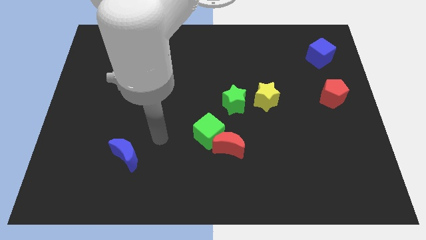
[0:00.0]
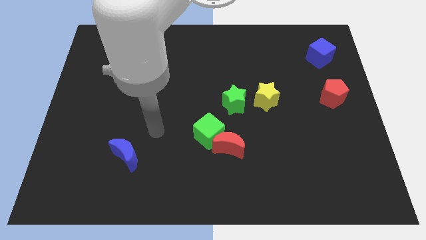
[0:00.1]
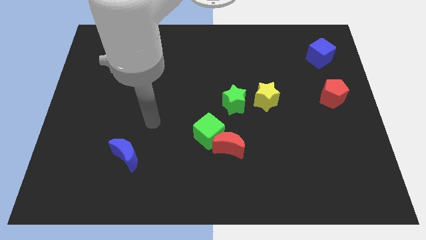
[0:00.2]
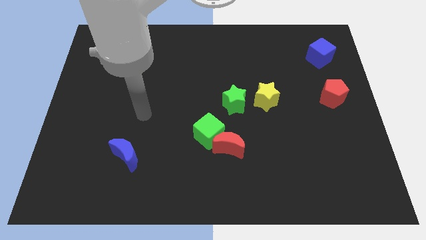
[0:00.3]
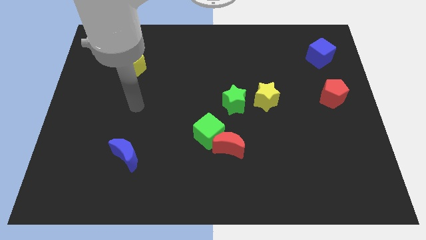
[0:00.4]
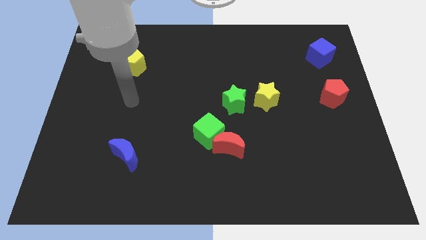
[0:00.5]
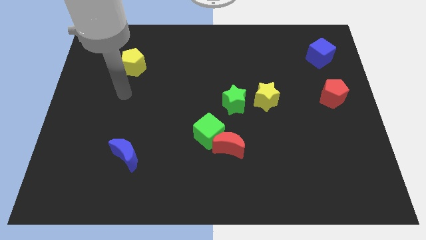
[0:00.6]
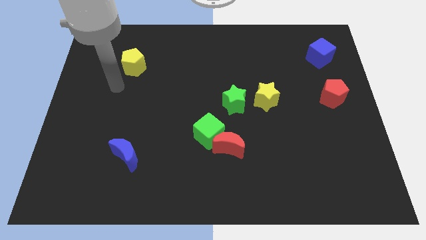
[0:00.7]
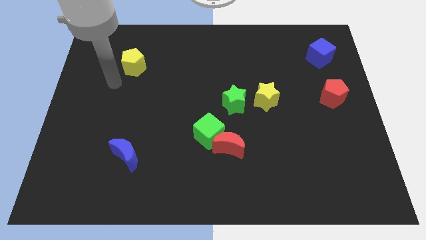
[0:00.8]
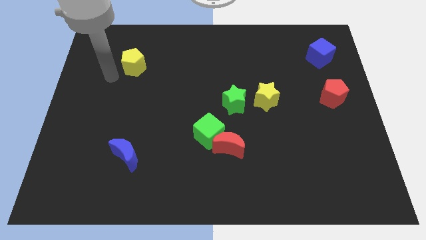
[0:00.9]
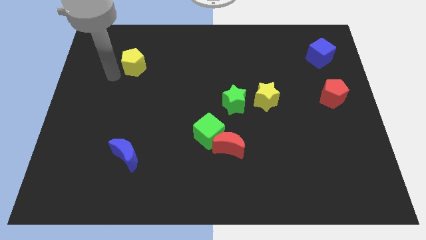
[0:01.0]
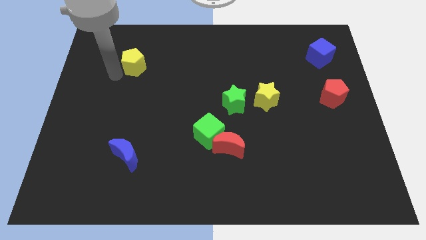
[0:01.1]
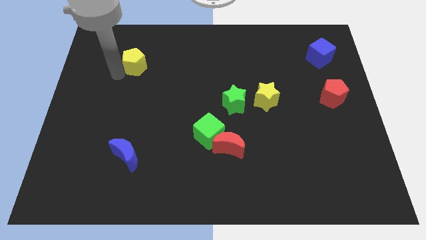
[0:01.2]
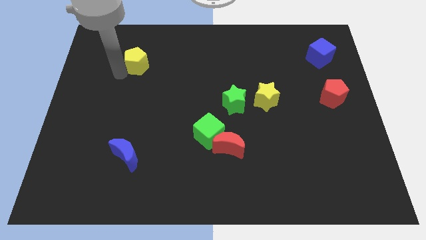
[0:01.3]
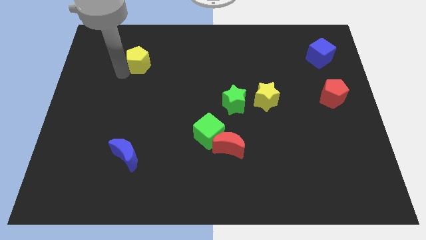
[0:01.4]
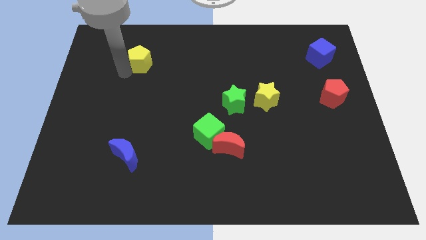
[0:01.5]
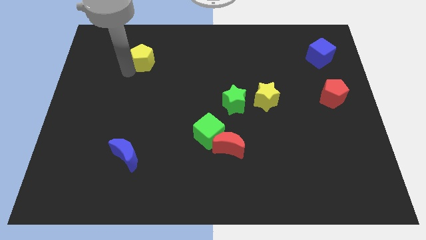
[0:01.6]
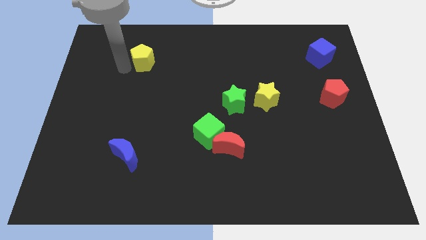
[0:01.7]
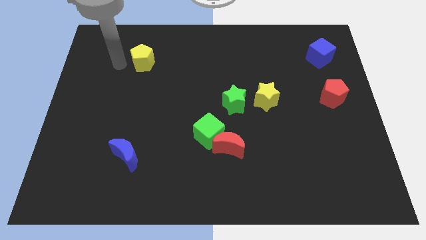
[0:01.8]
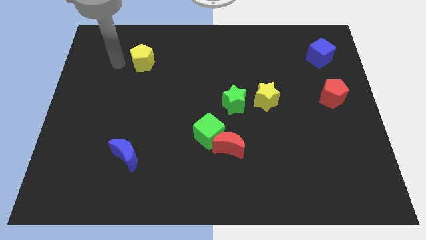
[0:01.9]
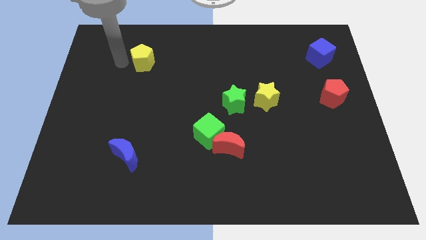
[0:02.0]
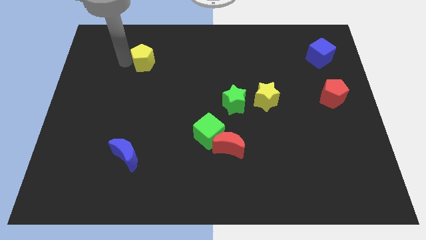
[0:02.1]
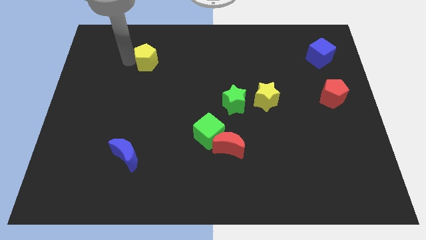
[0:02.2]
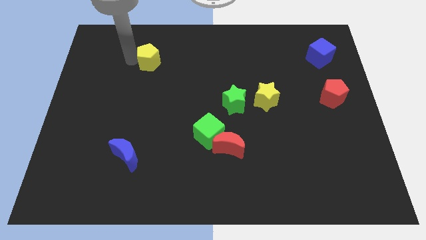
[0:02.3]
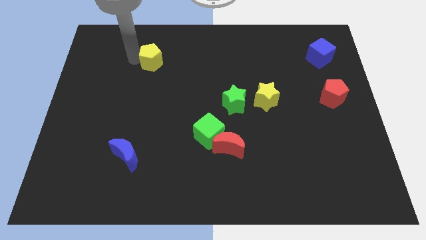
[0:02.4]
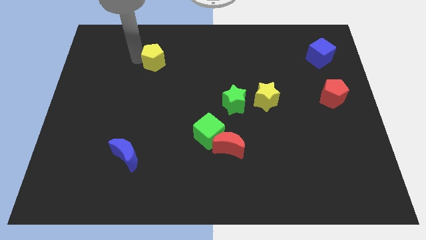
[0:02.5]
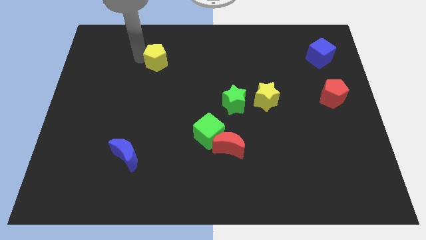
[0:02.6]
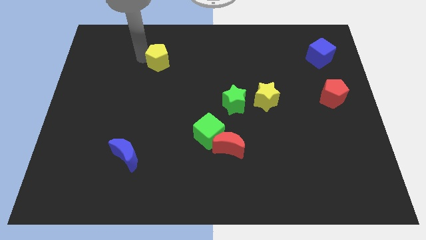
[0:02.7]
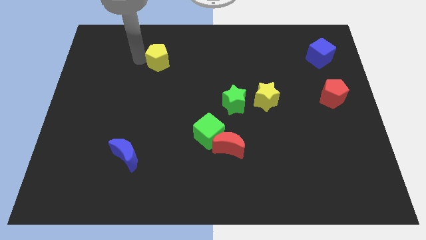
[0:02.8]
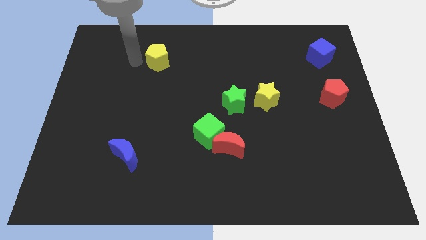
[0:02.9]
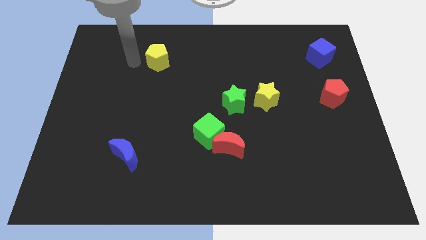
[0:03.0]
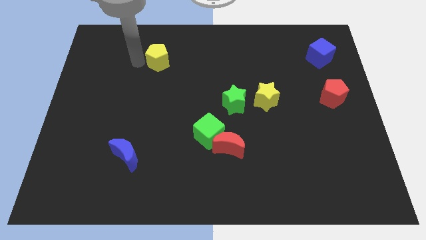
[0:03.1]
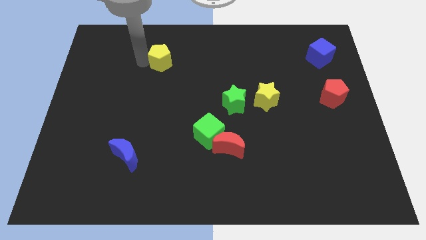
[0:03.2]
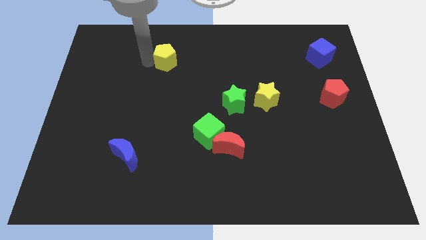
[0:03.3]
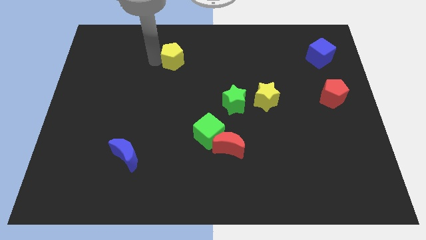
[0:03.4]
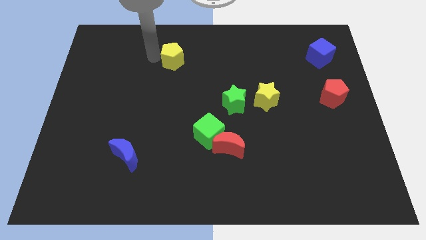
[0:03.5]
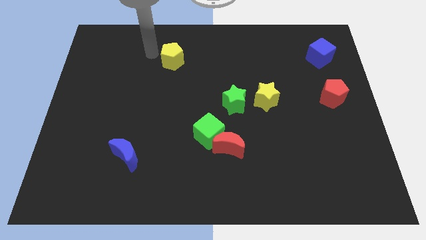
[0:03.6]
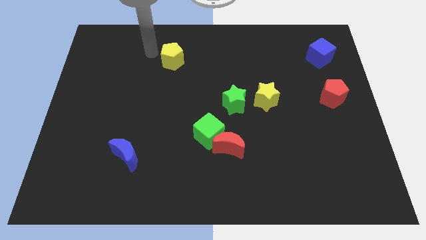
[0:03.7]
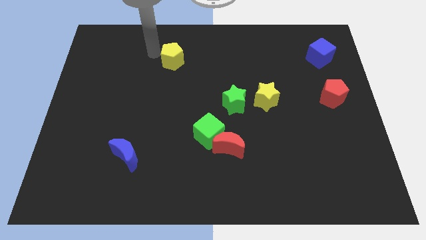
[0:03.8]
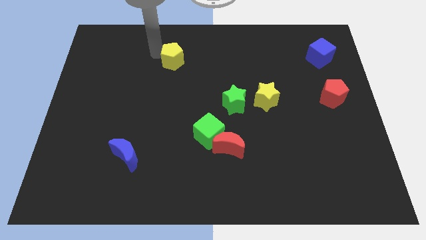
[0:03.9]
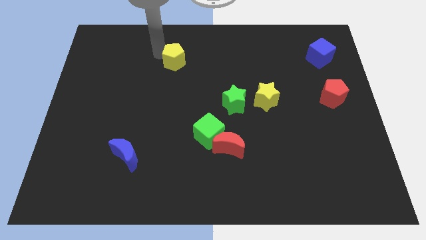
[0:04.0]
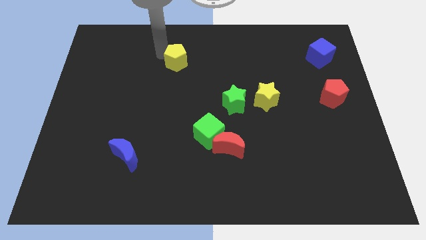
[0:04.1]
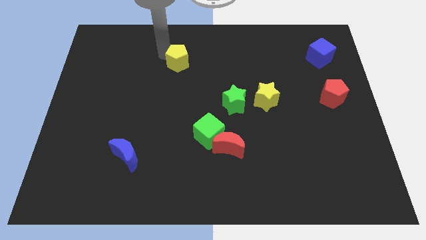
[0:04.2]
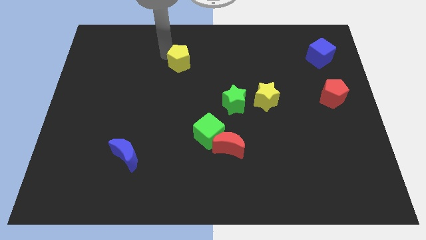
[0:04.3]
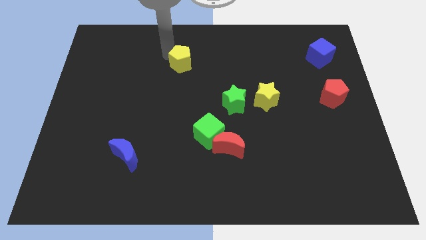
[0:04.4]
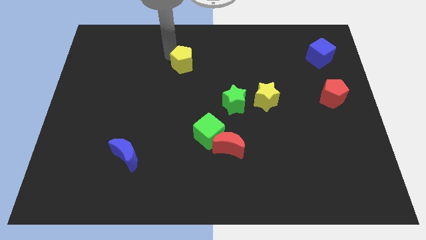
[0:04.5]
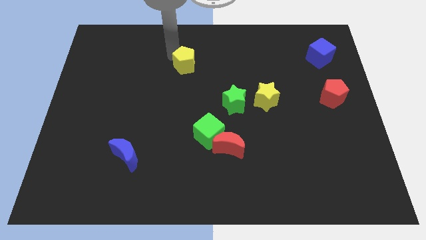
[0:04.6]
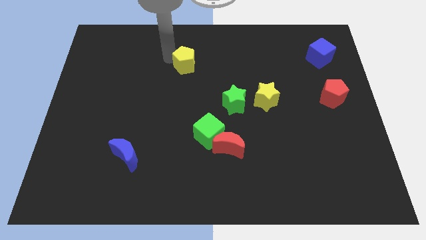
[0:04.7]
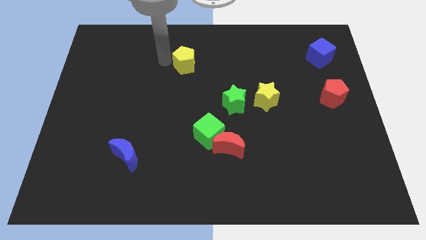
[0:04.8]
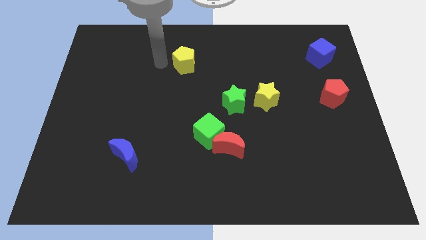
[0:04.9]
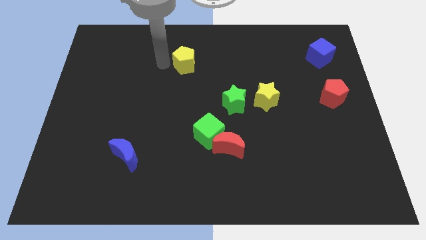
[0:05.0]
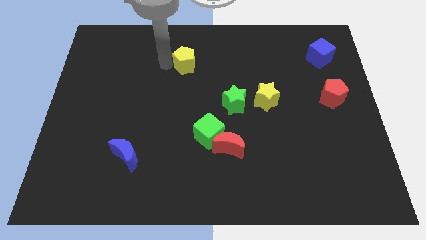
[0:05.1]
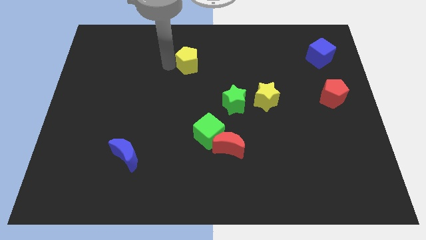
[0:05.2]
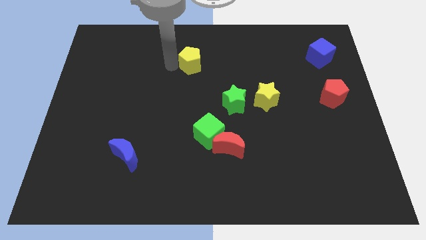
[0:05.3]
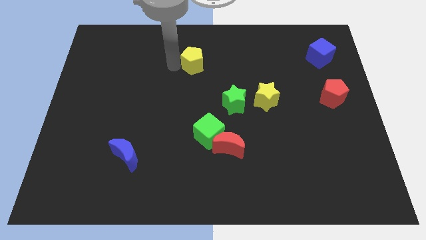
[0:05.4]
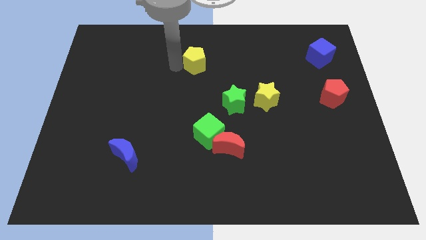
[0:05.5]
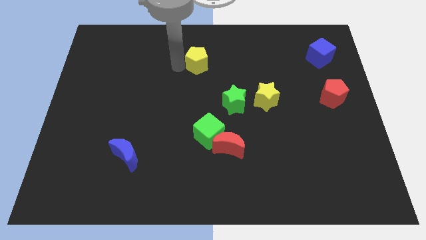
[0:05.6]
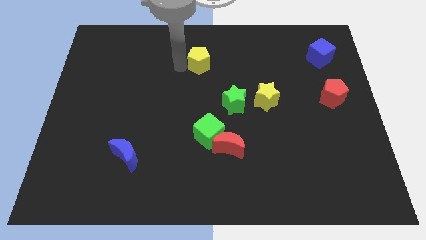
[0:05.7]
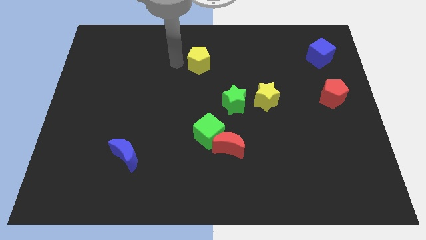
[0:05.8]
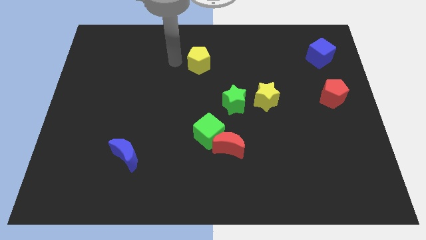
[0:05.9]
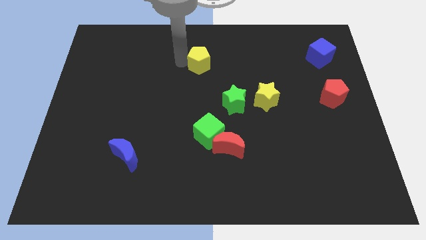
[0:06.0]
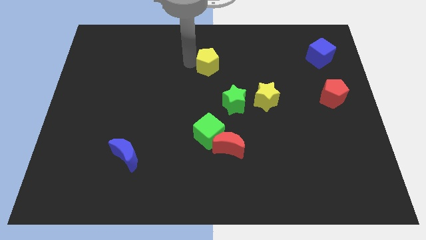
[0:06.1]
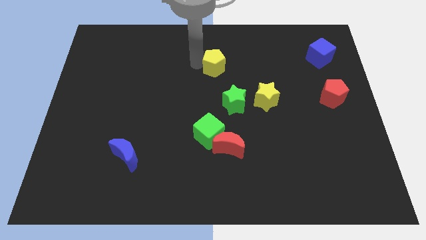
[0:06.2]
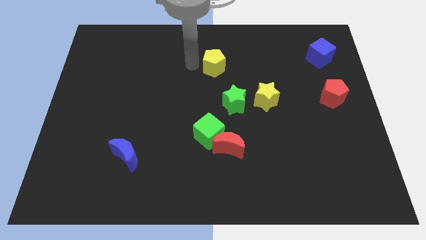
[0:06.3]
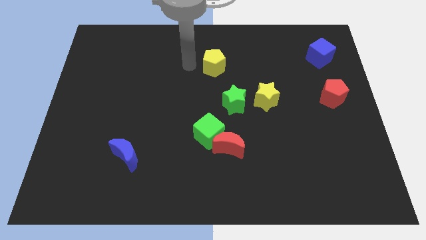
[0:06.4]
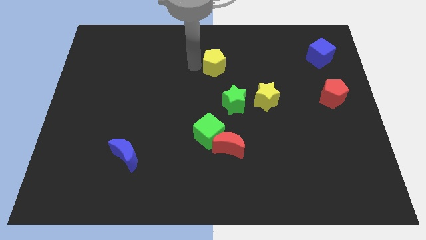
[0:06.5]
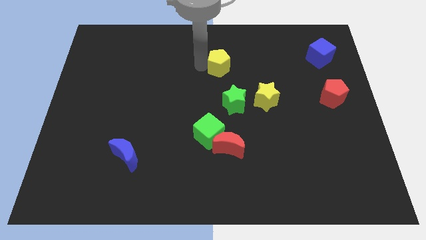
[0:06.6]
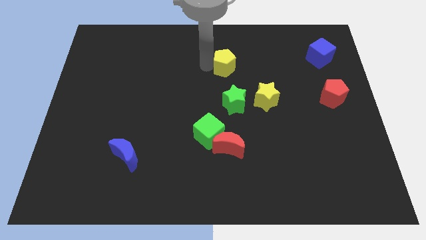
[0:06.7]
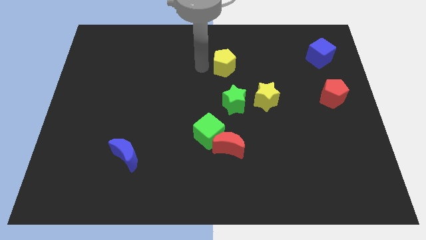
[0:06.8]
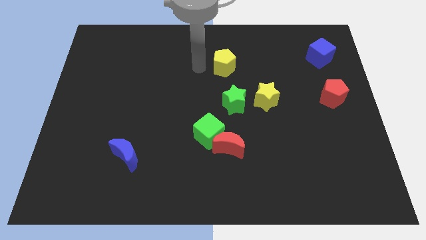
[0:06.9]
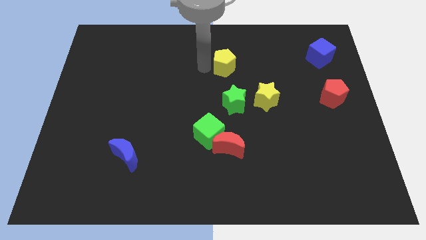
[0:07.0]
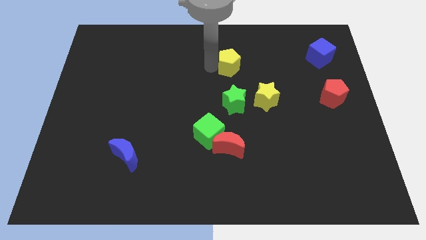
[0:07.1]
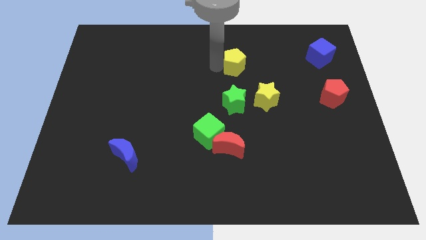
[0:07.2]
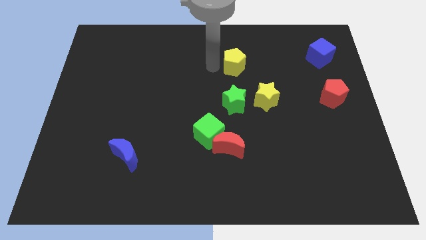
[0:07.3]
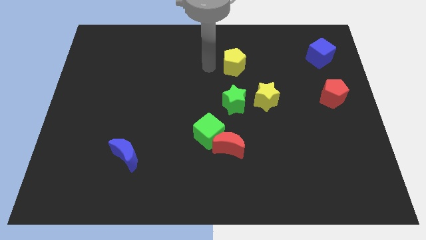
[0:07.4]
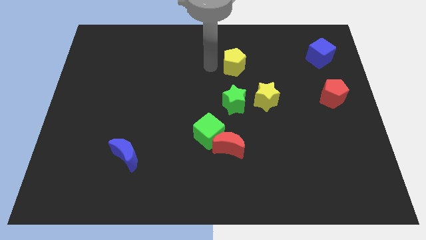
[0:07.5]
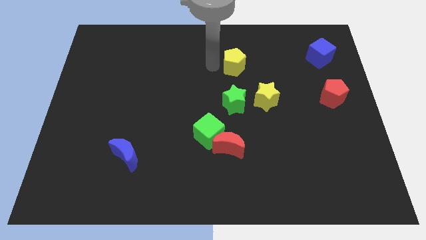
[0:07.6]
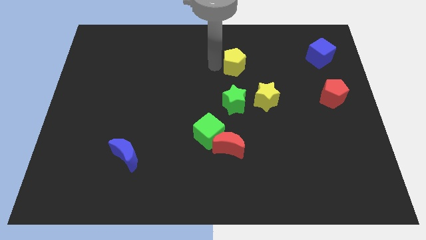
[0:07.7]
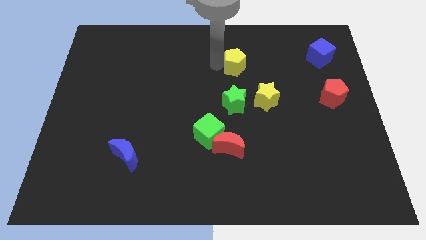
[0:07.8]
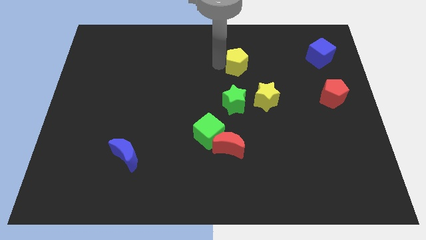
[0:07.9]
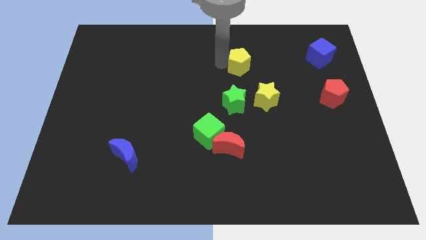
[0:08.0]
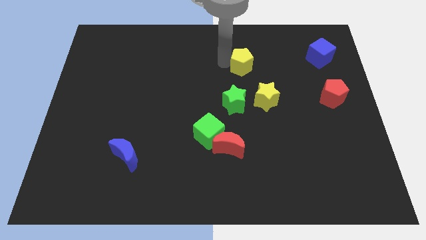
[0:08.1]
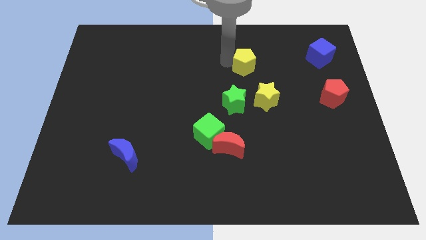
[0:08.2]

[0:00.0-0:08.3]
put the yellow pentagon to the top side of the yellow star
